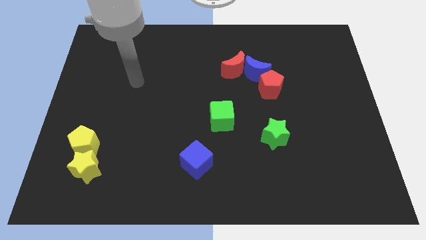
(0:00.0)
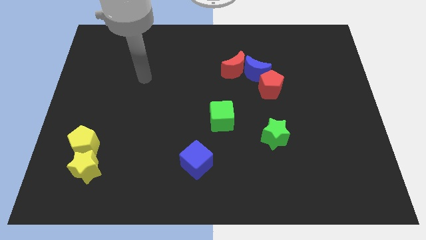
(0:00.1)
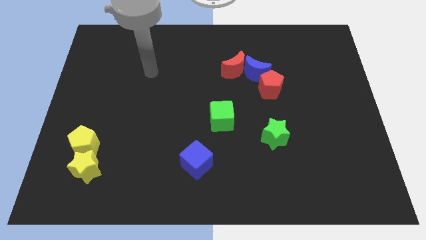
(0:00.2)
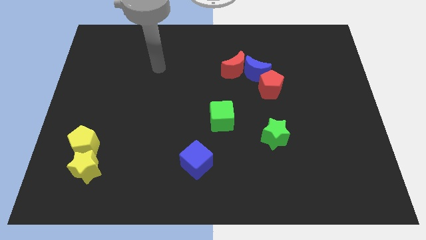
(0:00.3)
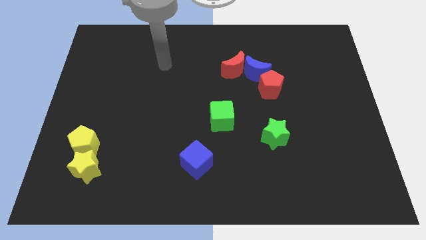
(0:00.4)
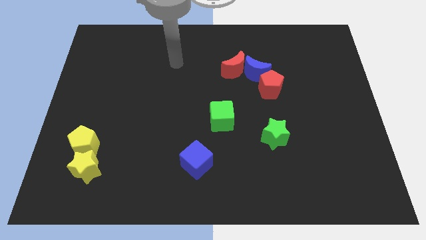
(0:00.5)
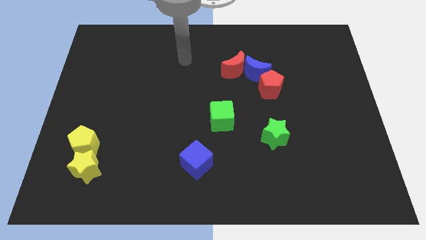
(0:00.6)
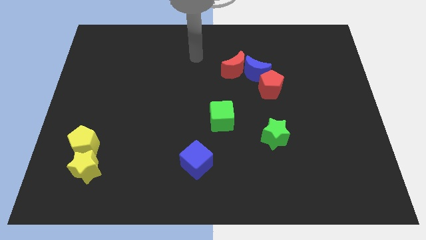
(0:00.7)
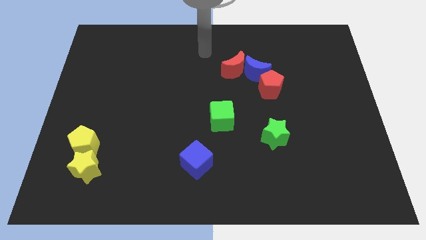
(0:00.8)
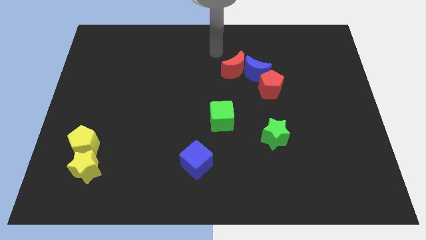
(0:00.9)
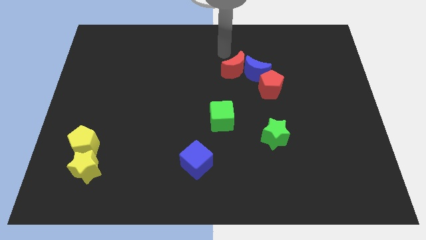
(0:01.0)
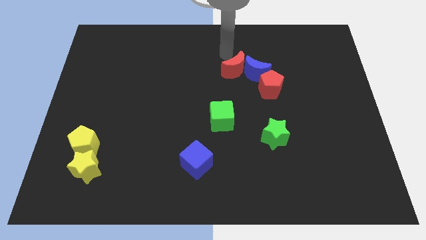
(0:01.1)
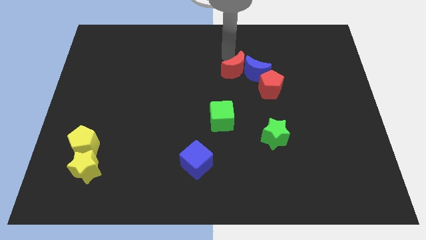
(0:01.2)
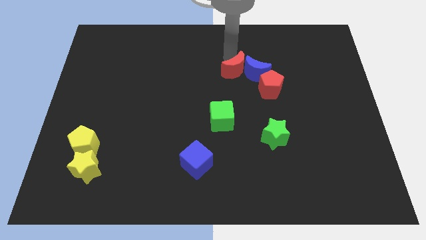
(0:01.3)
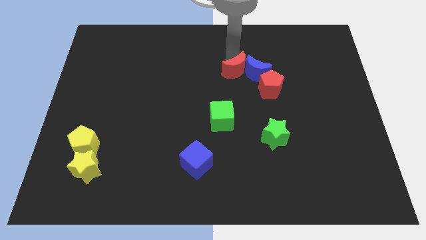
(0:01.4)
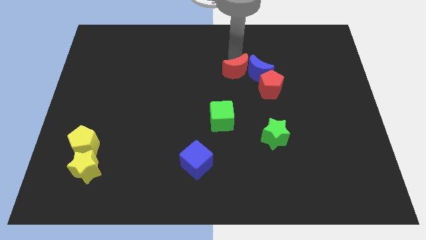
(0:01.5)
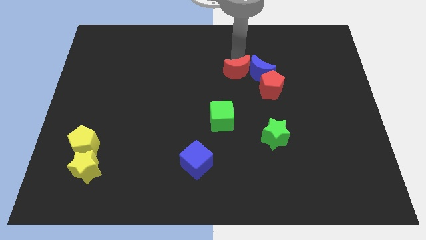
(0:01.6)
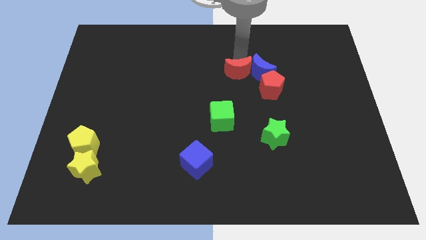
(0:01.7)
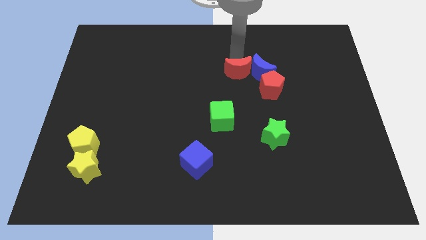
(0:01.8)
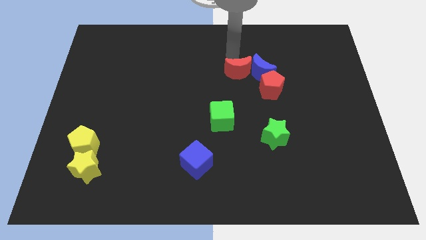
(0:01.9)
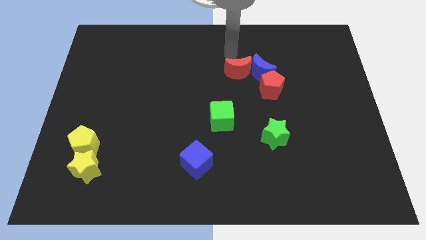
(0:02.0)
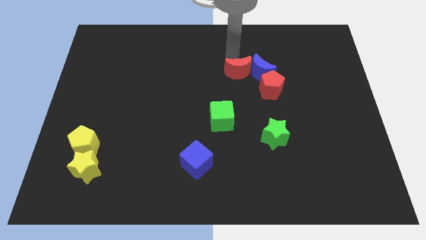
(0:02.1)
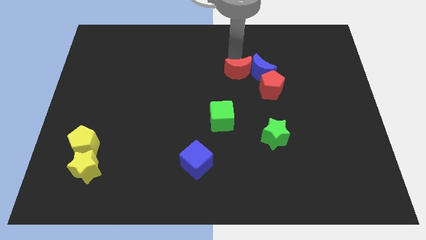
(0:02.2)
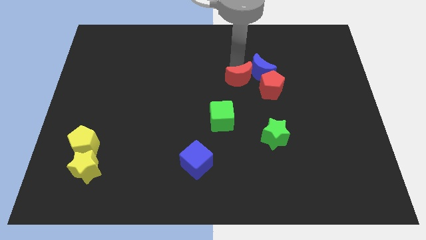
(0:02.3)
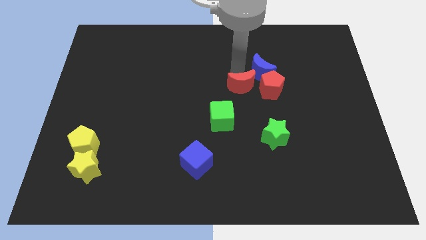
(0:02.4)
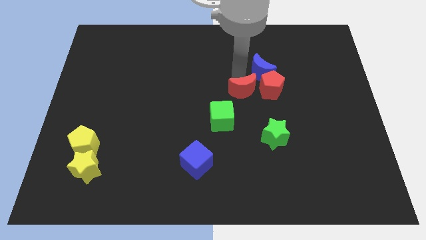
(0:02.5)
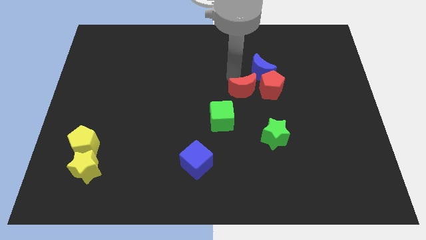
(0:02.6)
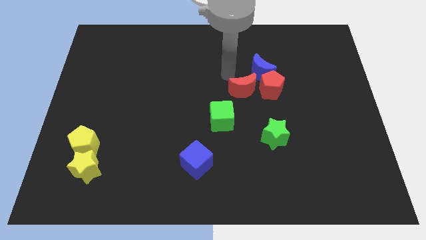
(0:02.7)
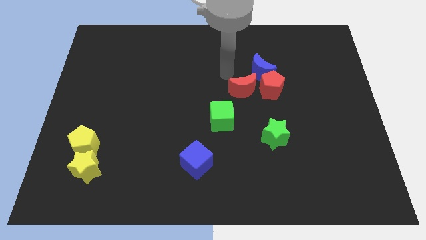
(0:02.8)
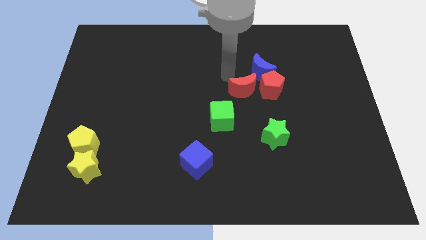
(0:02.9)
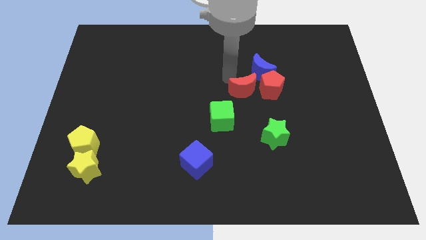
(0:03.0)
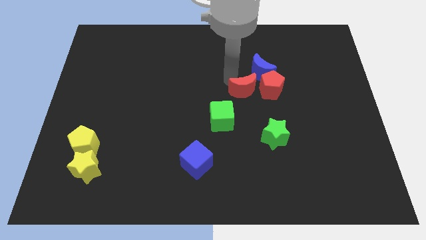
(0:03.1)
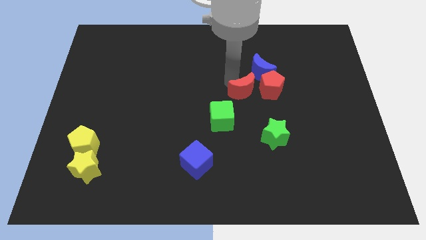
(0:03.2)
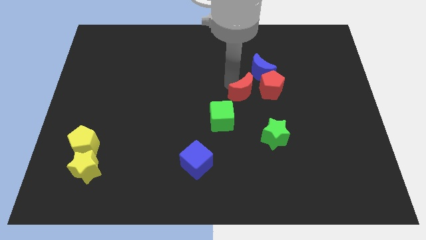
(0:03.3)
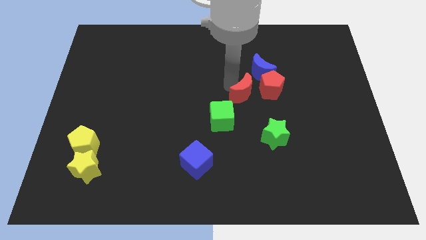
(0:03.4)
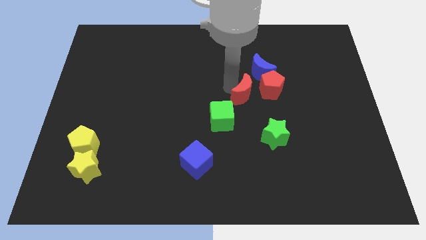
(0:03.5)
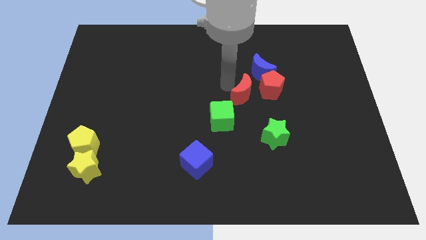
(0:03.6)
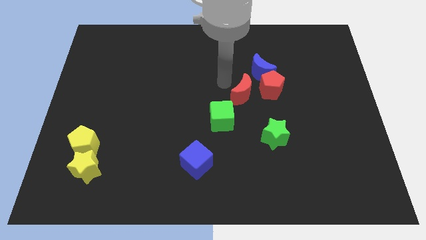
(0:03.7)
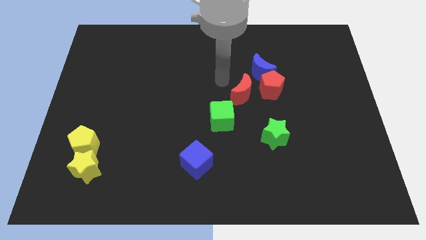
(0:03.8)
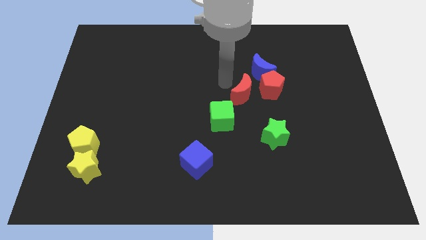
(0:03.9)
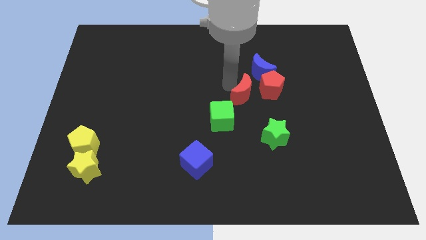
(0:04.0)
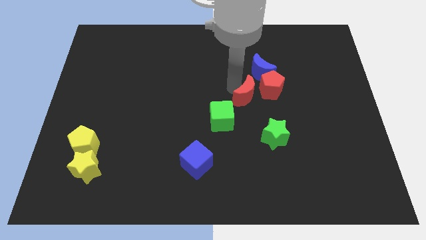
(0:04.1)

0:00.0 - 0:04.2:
slightly slide the red moon down and then to the right

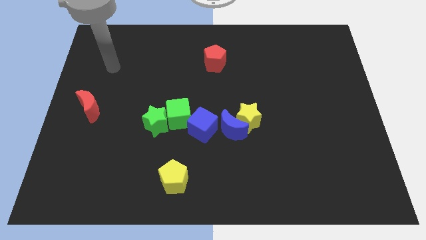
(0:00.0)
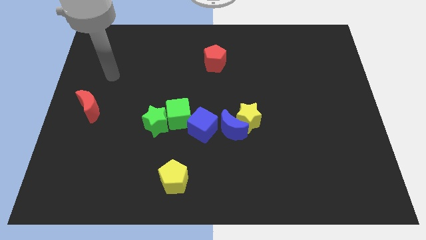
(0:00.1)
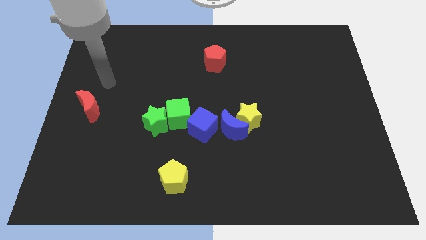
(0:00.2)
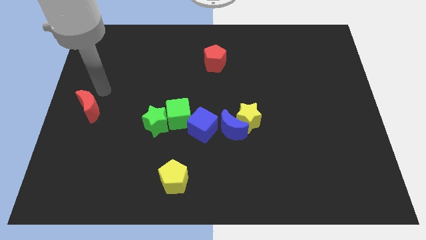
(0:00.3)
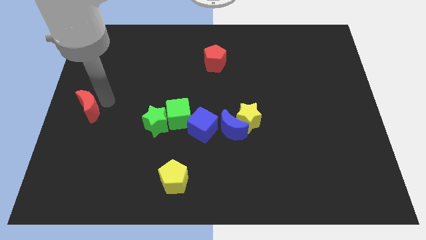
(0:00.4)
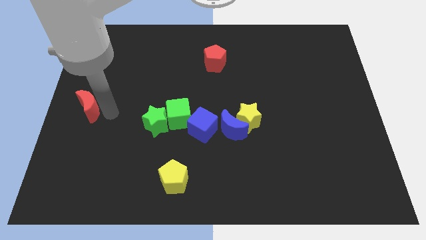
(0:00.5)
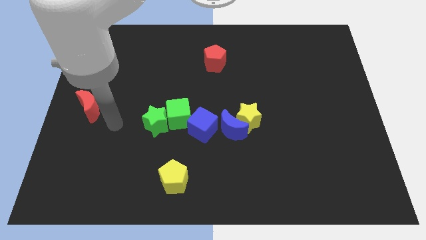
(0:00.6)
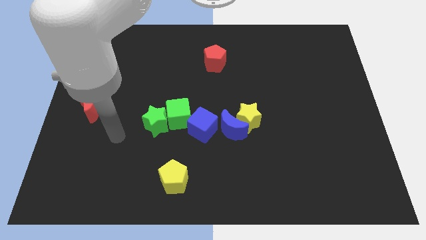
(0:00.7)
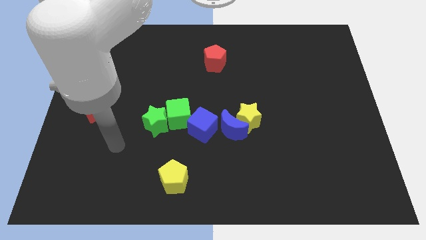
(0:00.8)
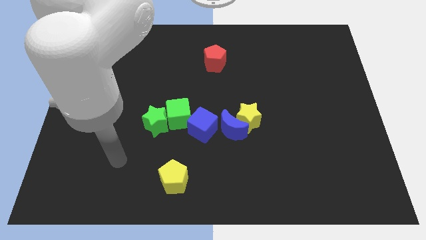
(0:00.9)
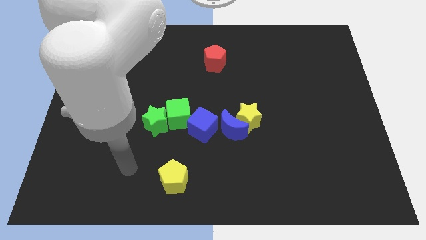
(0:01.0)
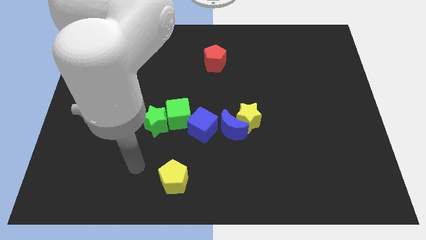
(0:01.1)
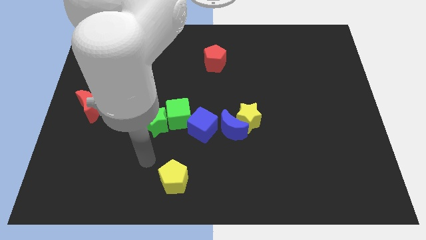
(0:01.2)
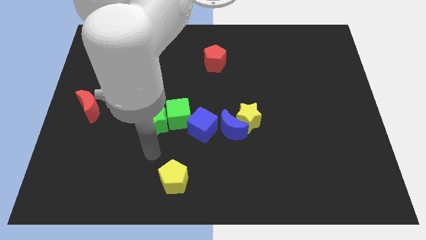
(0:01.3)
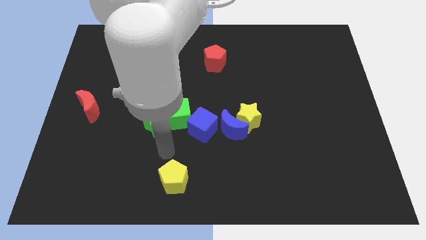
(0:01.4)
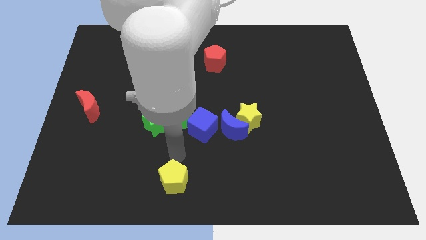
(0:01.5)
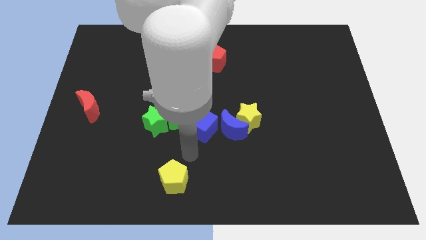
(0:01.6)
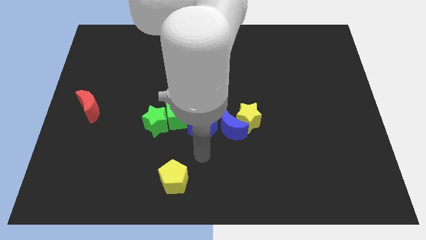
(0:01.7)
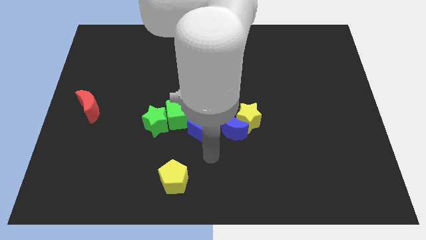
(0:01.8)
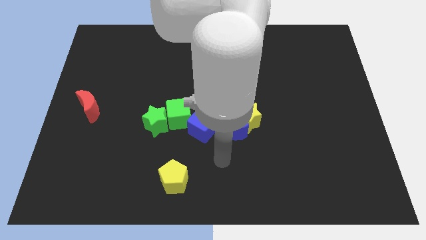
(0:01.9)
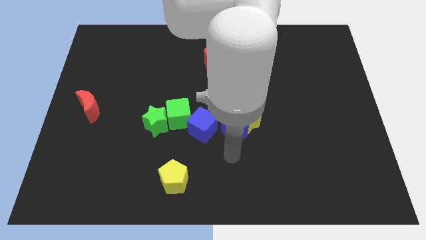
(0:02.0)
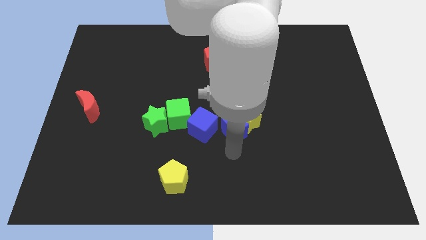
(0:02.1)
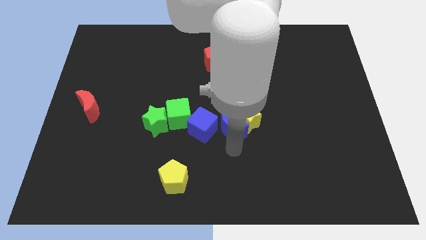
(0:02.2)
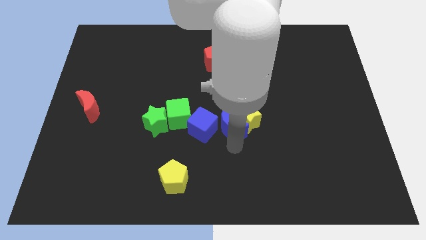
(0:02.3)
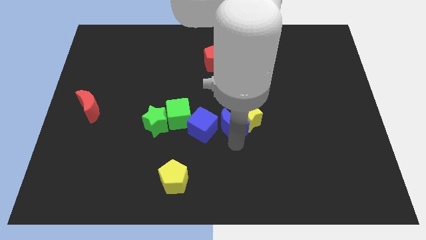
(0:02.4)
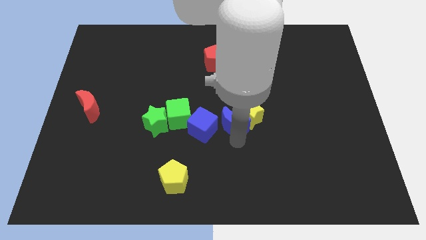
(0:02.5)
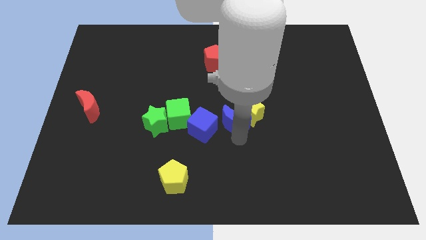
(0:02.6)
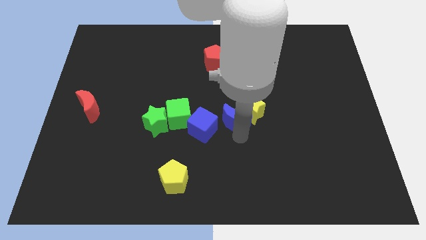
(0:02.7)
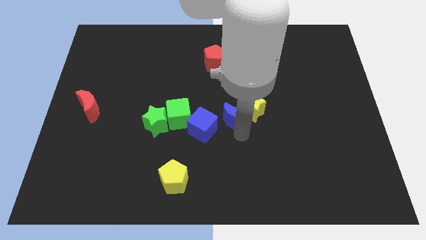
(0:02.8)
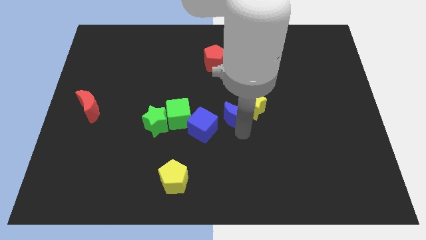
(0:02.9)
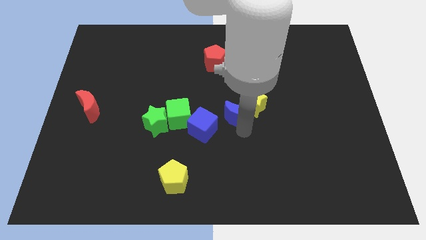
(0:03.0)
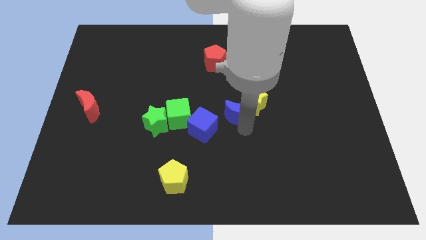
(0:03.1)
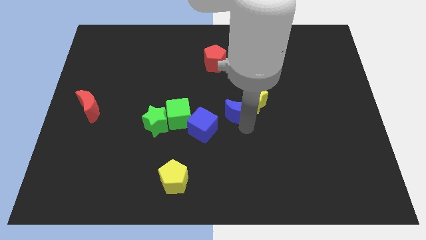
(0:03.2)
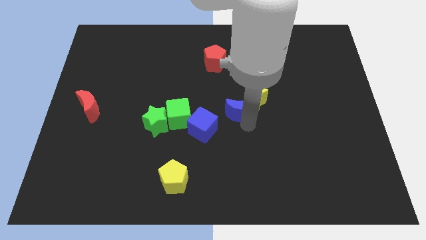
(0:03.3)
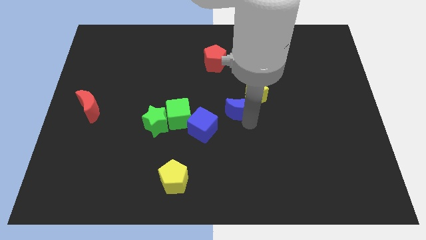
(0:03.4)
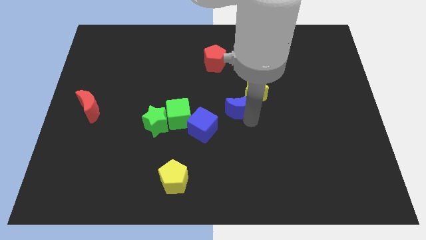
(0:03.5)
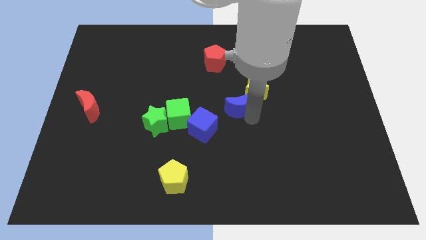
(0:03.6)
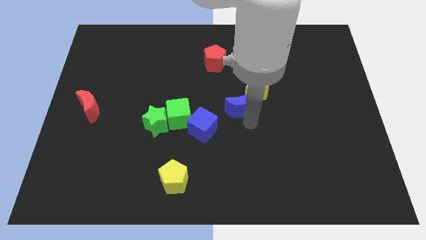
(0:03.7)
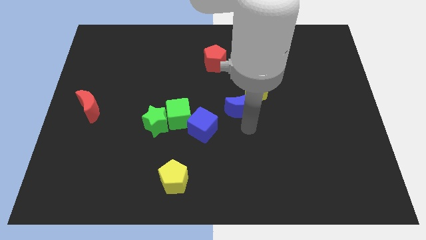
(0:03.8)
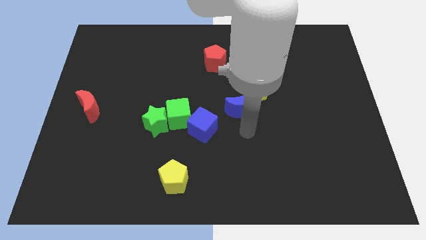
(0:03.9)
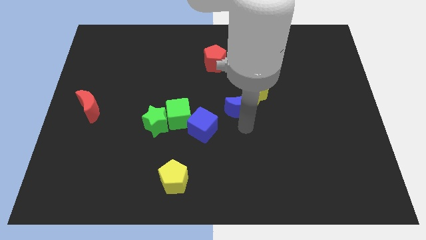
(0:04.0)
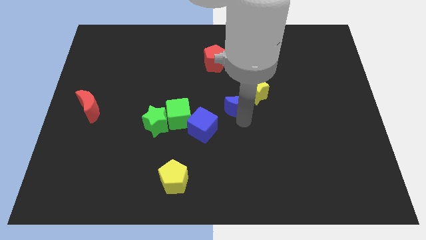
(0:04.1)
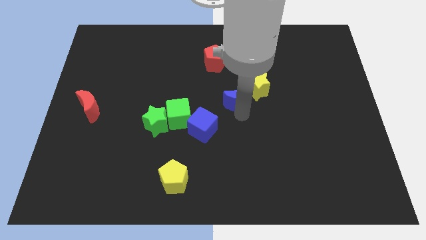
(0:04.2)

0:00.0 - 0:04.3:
move the blue moon up a bit
